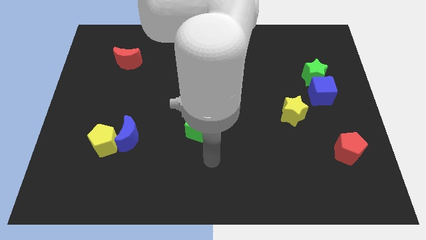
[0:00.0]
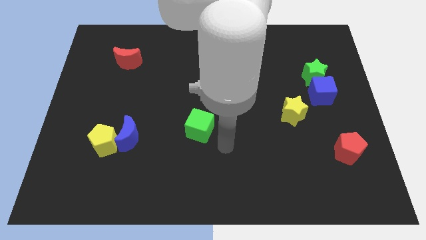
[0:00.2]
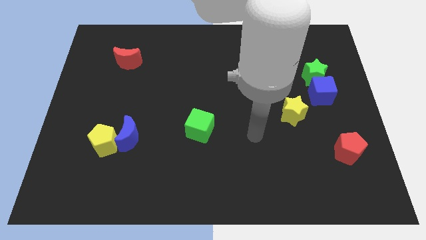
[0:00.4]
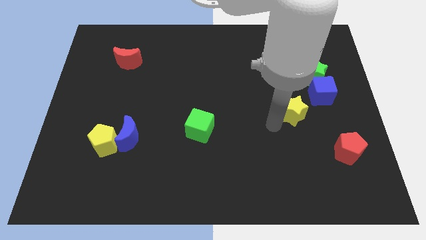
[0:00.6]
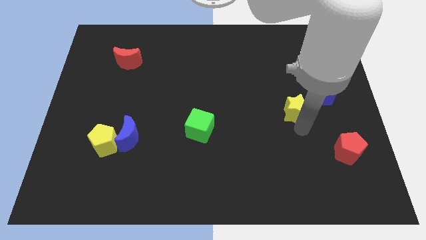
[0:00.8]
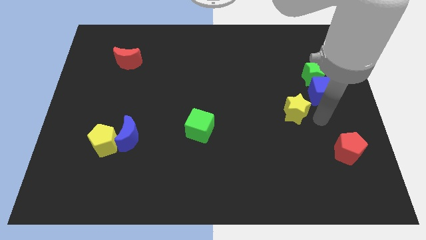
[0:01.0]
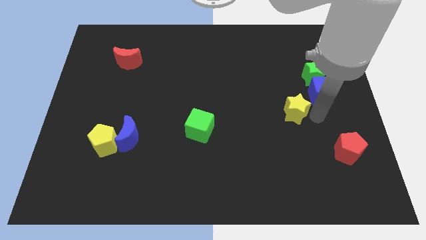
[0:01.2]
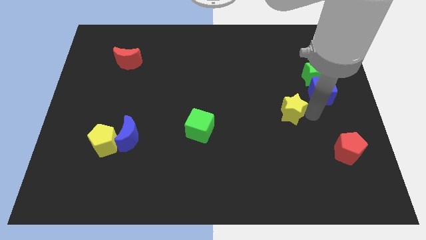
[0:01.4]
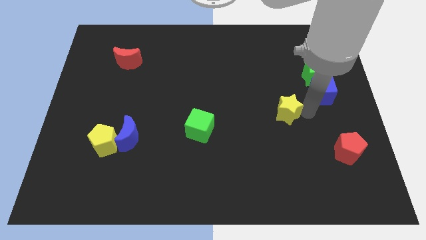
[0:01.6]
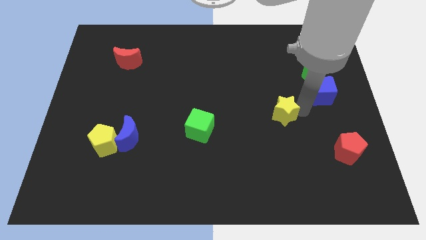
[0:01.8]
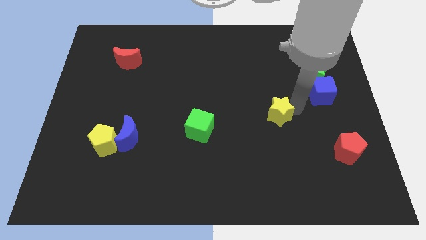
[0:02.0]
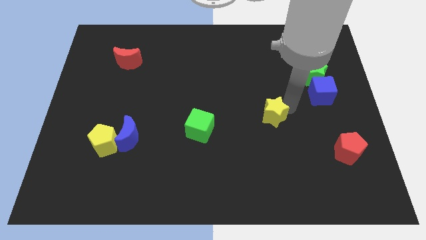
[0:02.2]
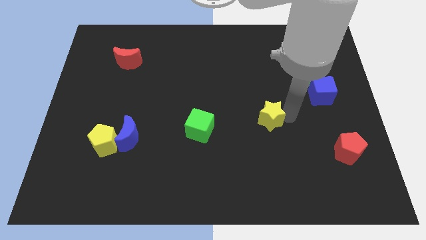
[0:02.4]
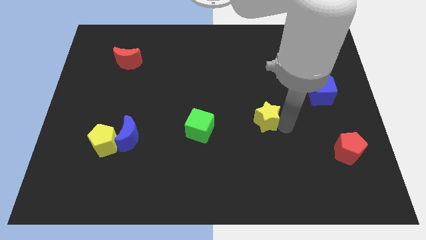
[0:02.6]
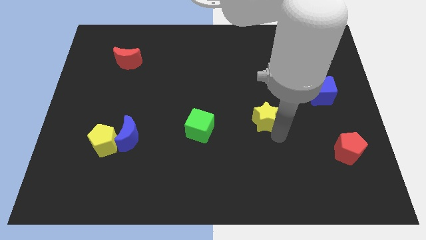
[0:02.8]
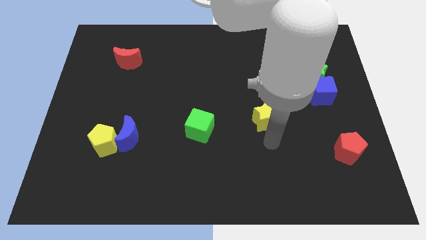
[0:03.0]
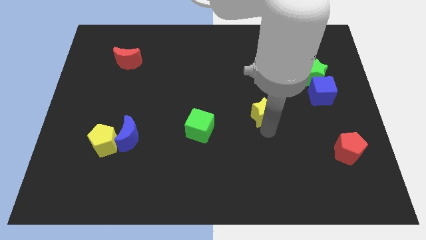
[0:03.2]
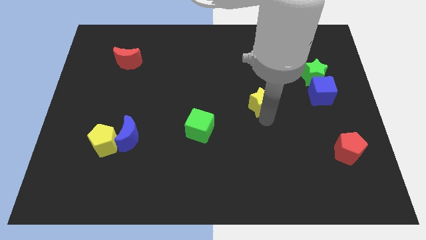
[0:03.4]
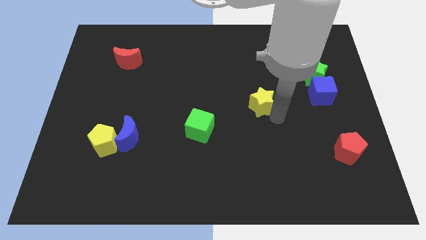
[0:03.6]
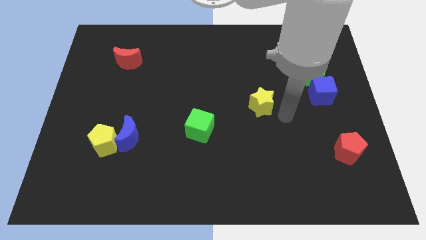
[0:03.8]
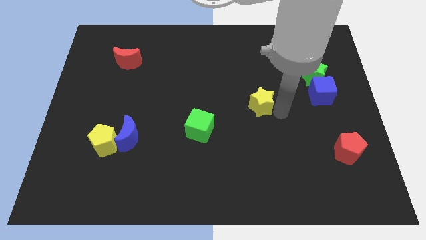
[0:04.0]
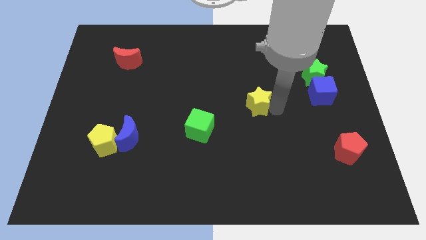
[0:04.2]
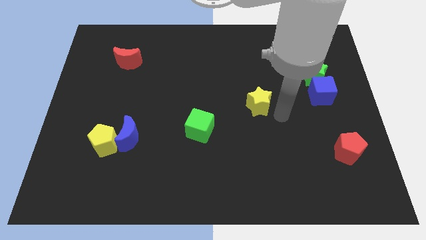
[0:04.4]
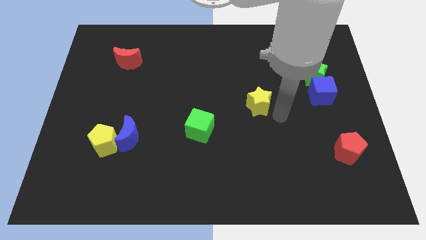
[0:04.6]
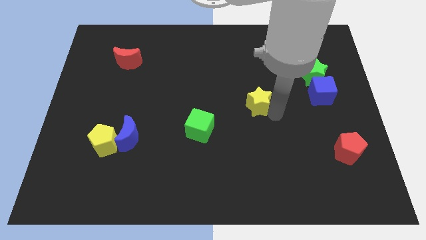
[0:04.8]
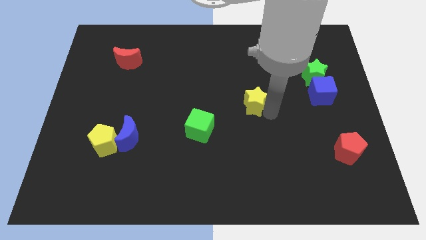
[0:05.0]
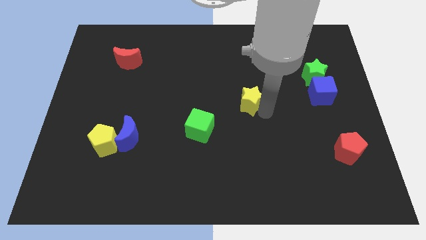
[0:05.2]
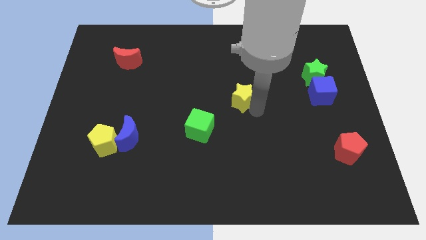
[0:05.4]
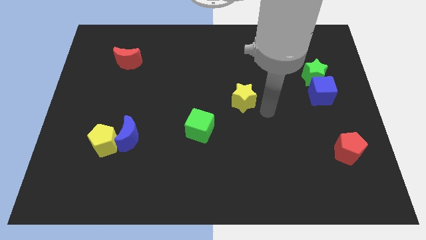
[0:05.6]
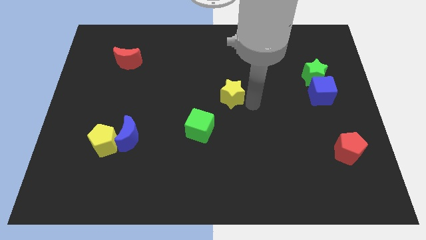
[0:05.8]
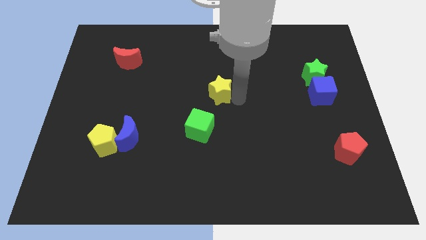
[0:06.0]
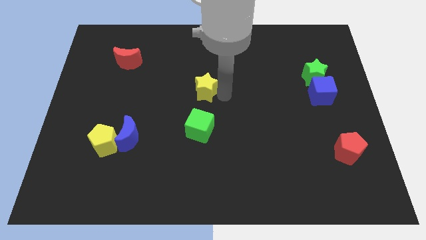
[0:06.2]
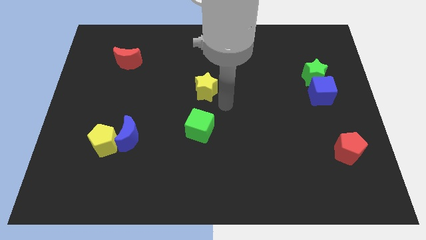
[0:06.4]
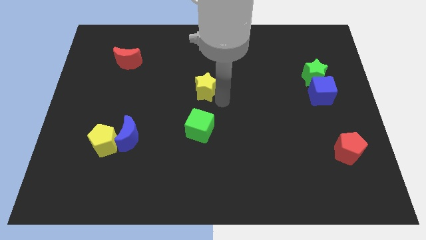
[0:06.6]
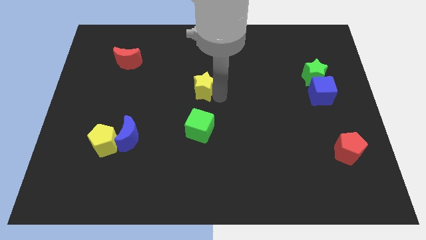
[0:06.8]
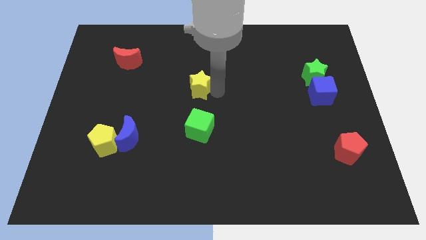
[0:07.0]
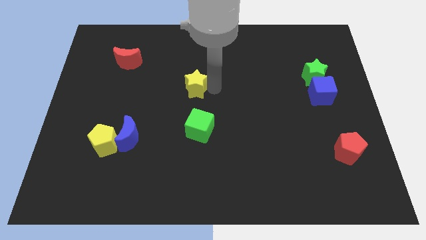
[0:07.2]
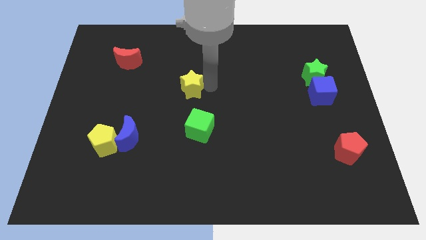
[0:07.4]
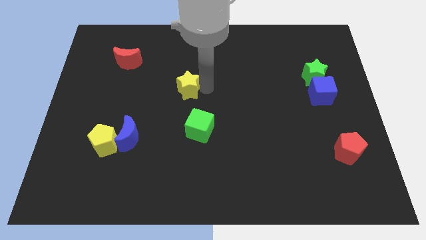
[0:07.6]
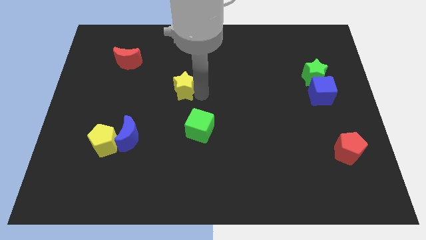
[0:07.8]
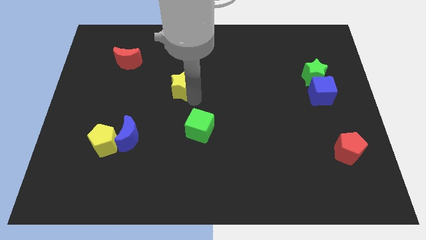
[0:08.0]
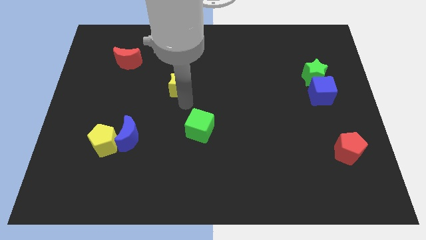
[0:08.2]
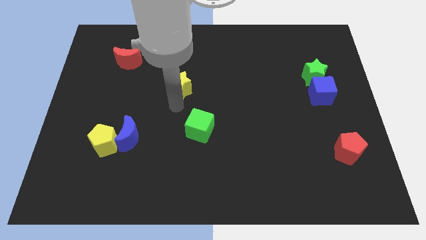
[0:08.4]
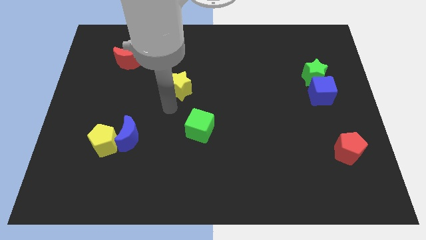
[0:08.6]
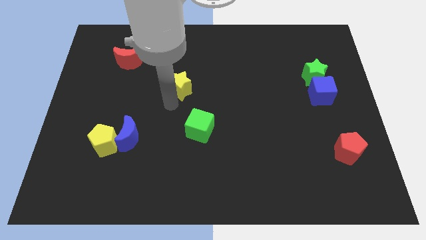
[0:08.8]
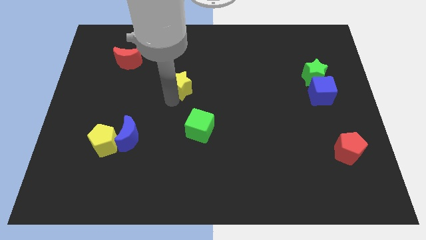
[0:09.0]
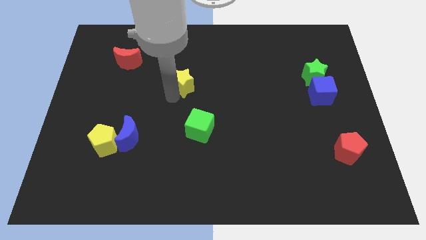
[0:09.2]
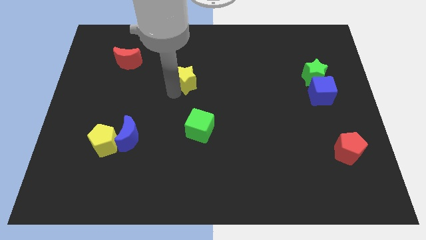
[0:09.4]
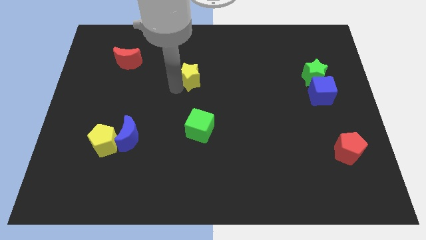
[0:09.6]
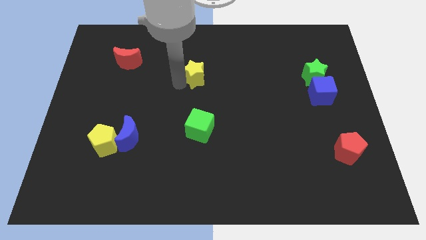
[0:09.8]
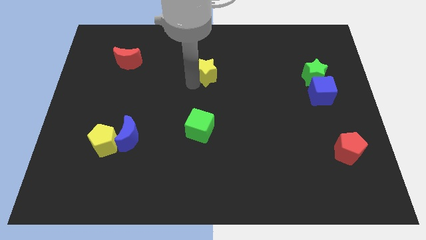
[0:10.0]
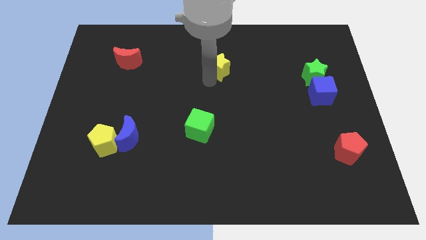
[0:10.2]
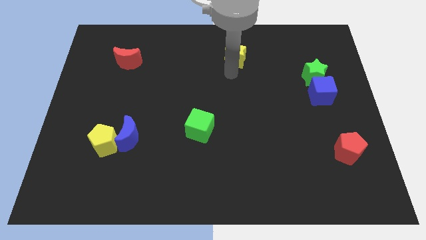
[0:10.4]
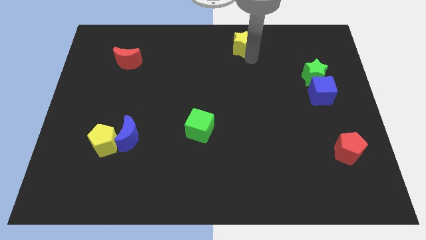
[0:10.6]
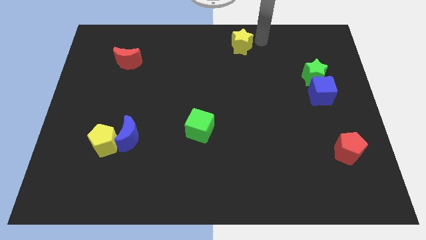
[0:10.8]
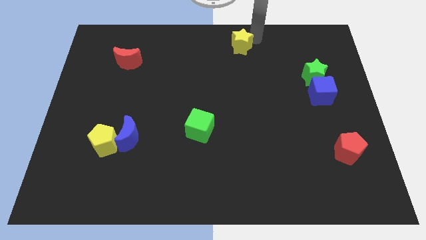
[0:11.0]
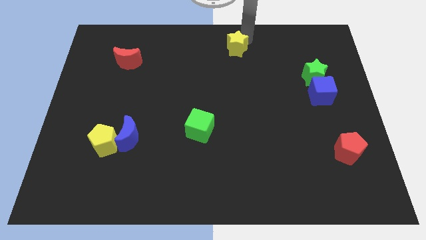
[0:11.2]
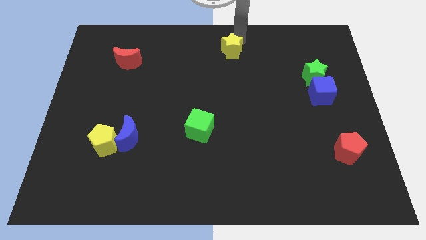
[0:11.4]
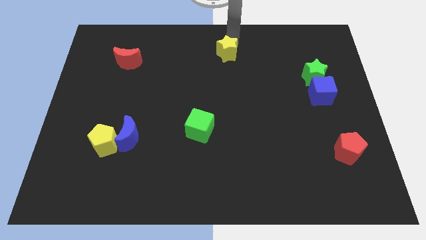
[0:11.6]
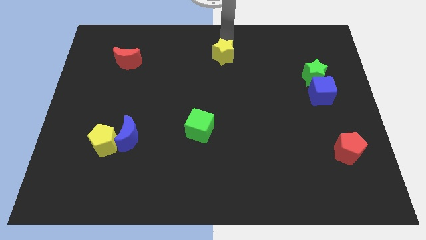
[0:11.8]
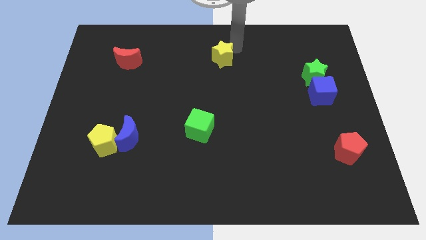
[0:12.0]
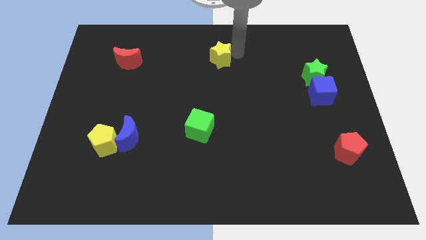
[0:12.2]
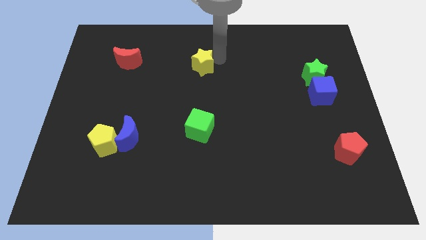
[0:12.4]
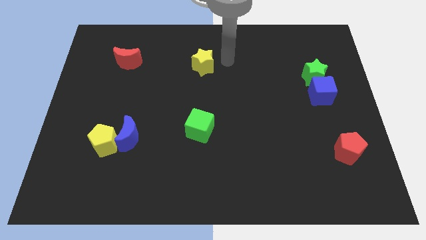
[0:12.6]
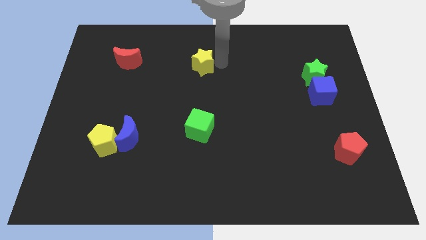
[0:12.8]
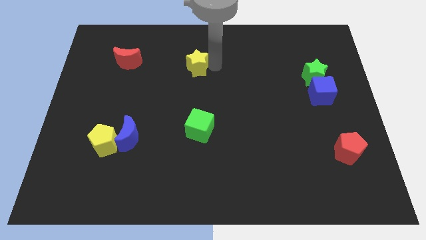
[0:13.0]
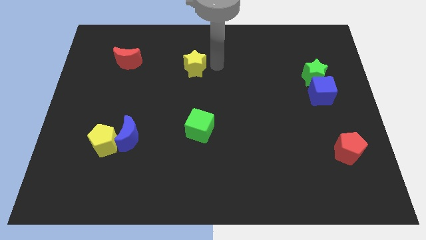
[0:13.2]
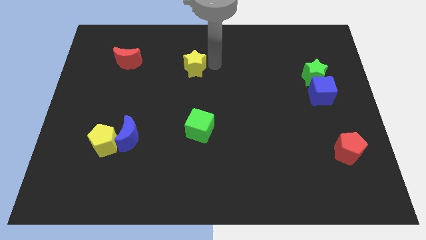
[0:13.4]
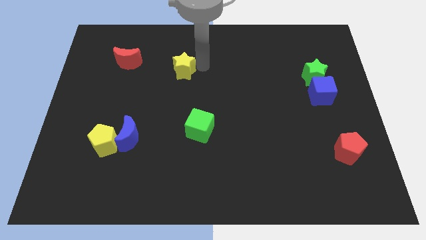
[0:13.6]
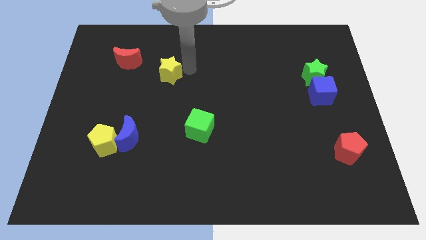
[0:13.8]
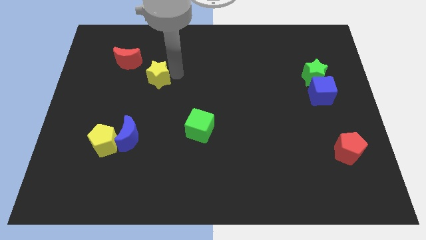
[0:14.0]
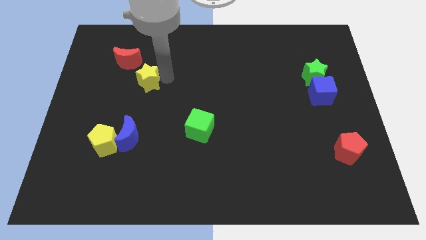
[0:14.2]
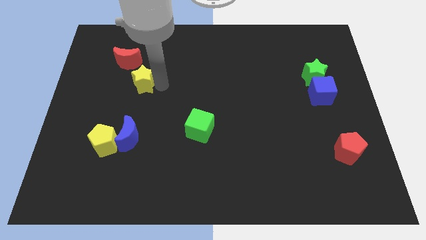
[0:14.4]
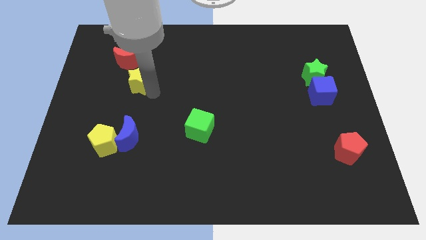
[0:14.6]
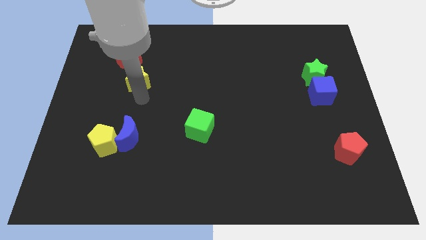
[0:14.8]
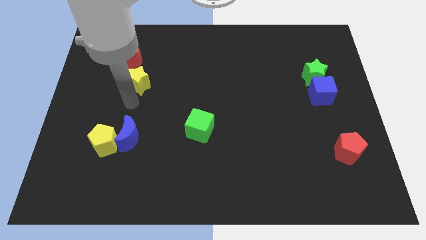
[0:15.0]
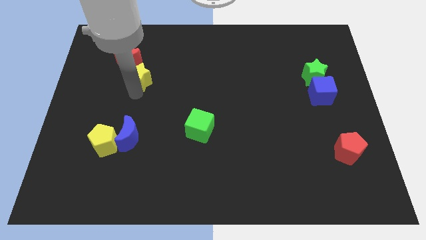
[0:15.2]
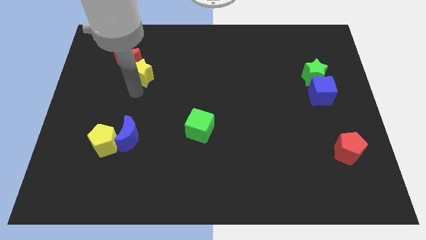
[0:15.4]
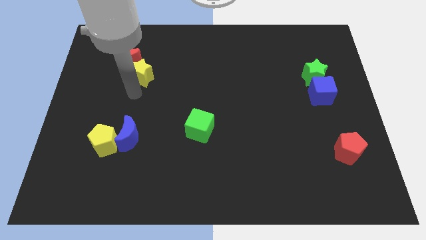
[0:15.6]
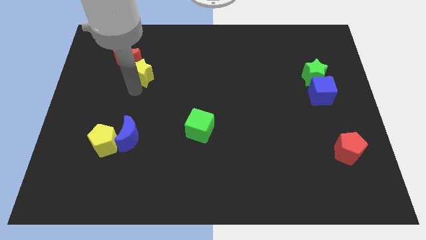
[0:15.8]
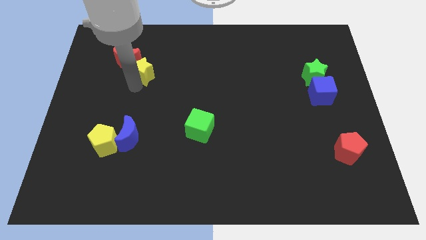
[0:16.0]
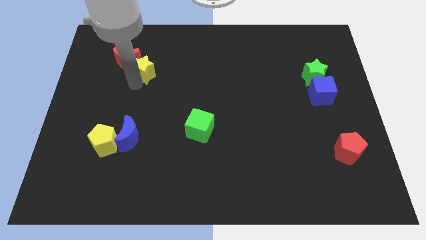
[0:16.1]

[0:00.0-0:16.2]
put the yellow star towards the red moon
